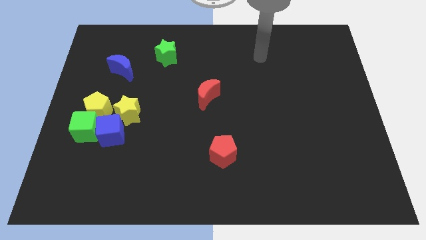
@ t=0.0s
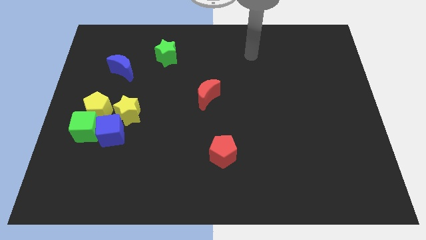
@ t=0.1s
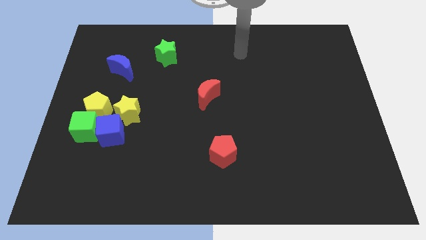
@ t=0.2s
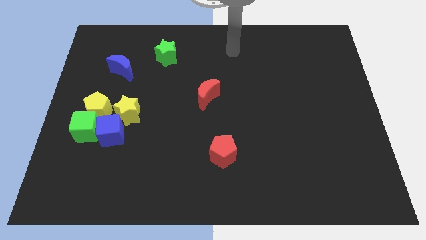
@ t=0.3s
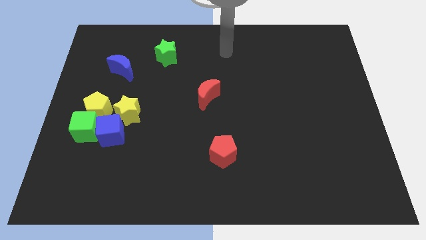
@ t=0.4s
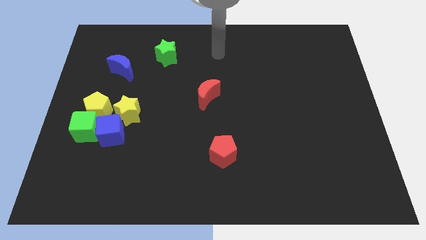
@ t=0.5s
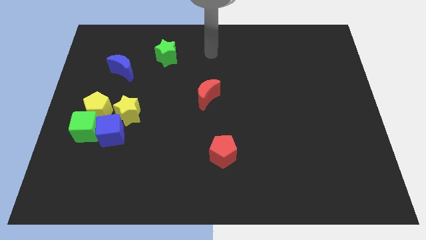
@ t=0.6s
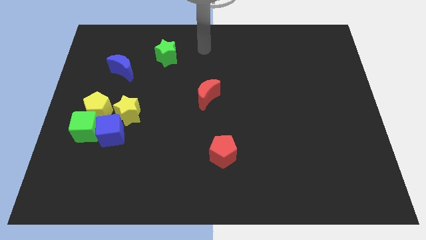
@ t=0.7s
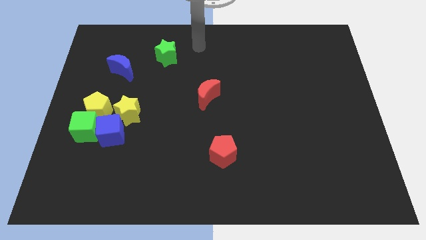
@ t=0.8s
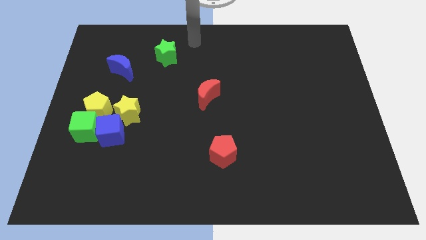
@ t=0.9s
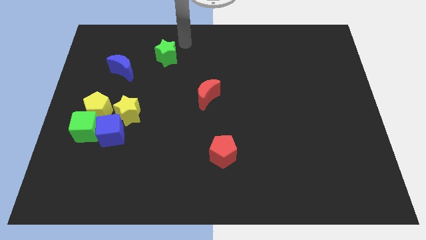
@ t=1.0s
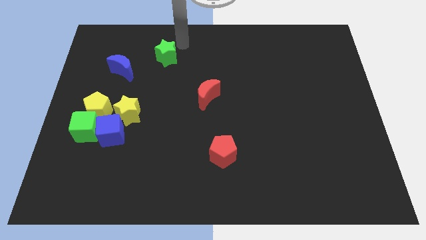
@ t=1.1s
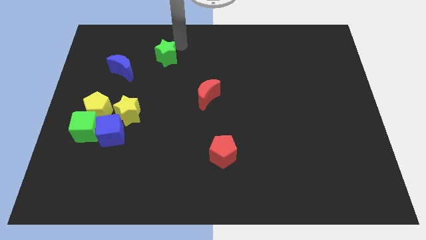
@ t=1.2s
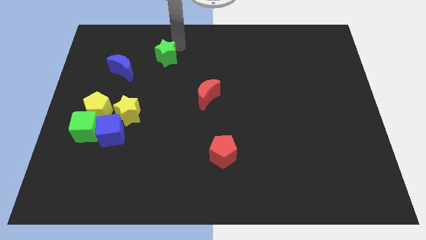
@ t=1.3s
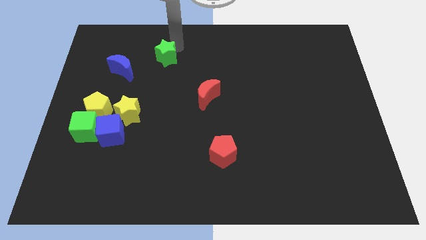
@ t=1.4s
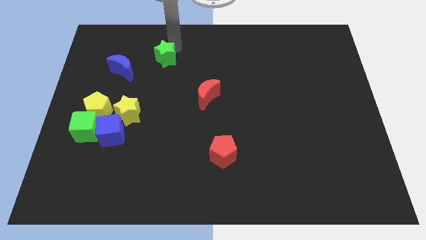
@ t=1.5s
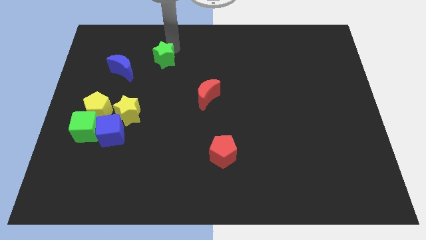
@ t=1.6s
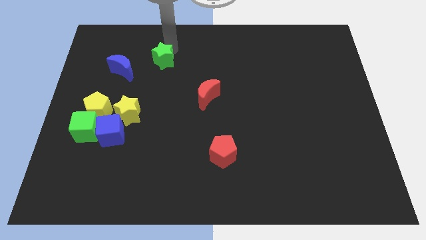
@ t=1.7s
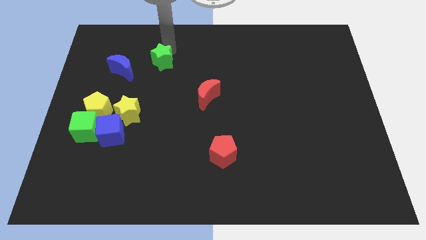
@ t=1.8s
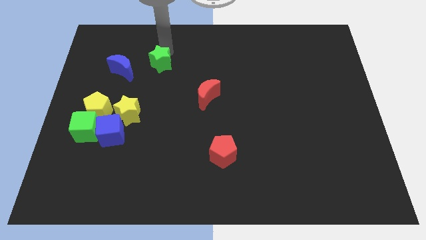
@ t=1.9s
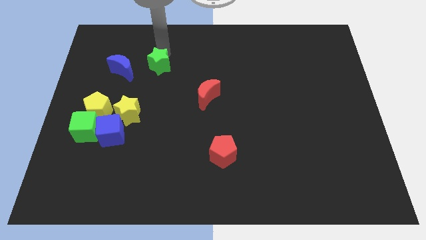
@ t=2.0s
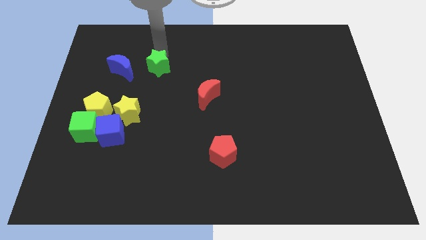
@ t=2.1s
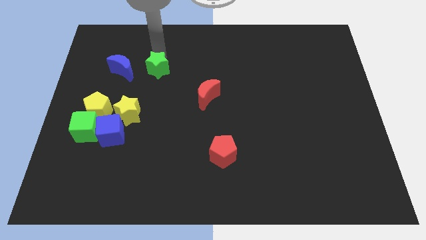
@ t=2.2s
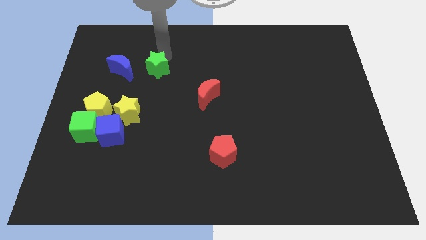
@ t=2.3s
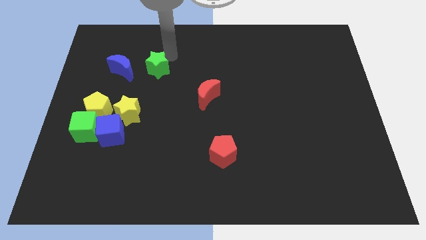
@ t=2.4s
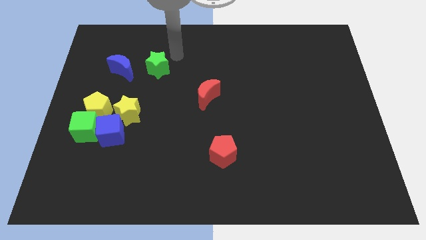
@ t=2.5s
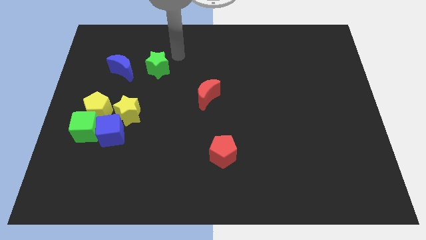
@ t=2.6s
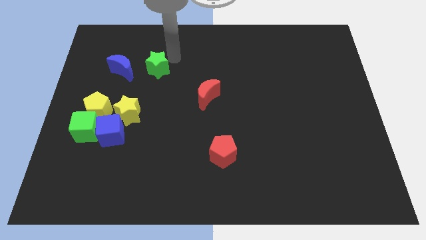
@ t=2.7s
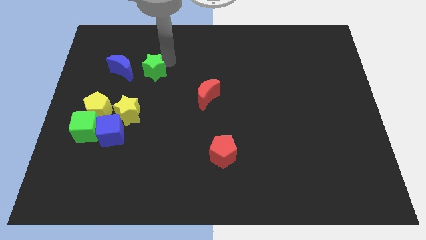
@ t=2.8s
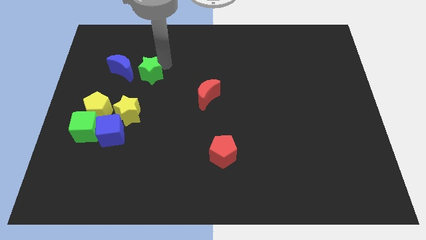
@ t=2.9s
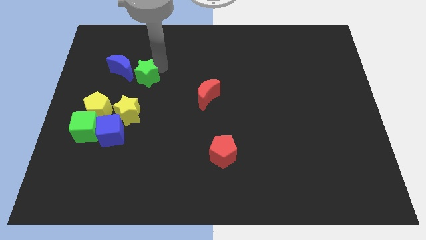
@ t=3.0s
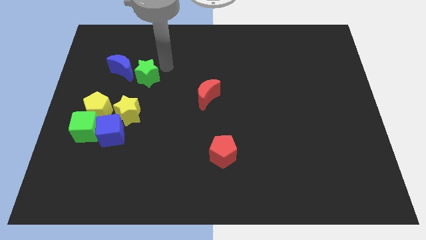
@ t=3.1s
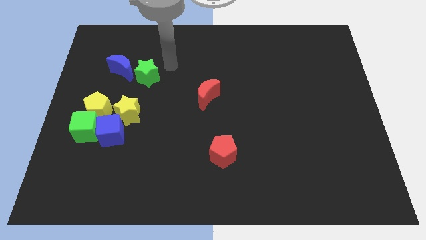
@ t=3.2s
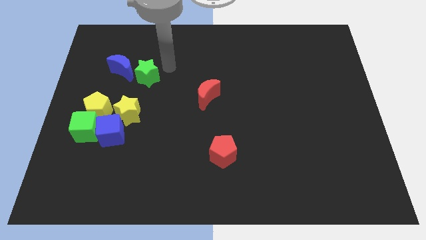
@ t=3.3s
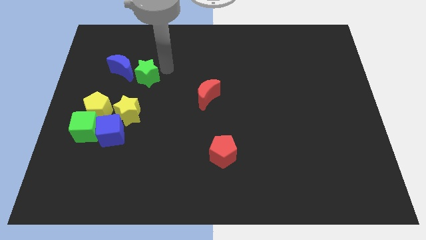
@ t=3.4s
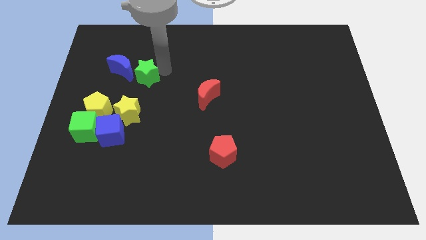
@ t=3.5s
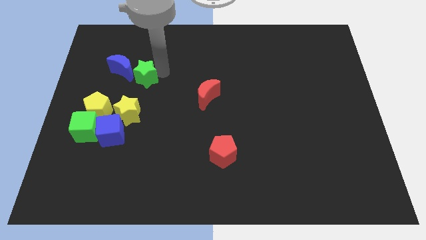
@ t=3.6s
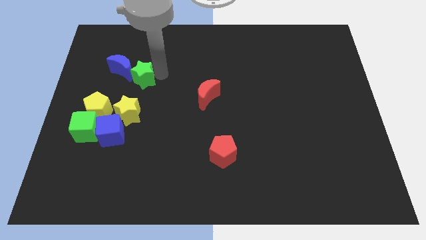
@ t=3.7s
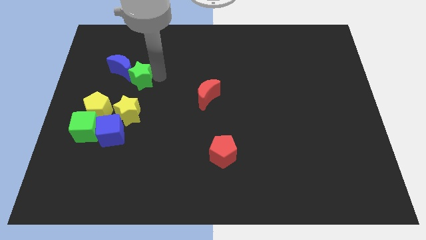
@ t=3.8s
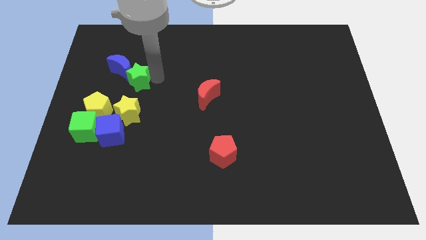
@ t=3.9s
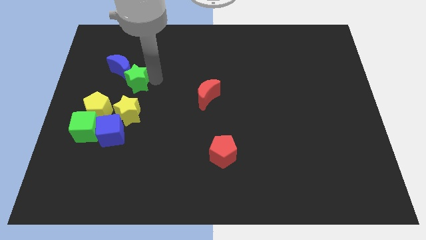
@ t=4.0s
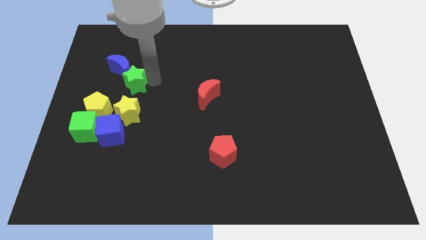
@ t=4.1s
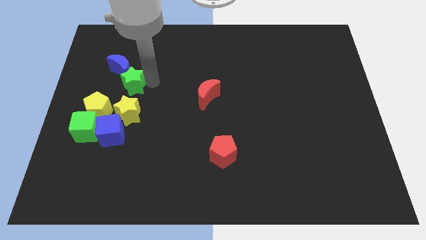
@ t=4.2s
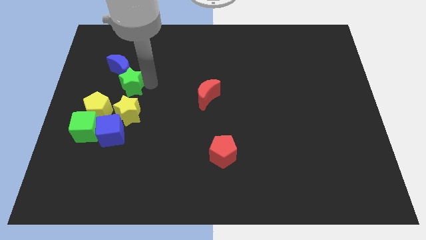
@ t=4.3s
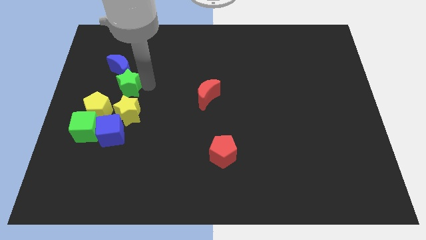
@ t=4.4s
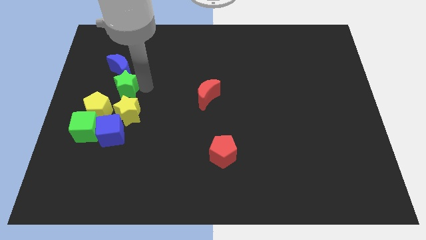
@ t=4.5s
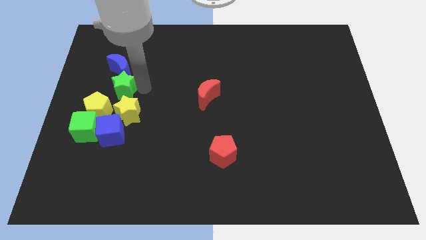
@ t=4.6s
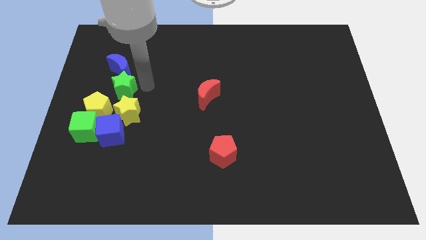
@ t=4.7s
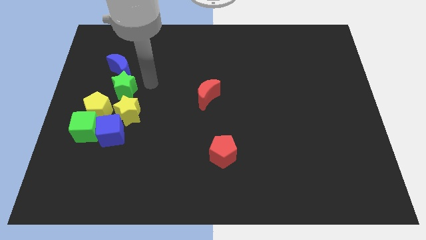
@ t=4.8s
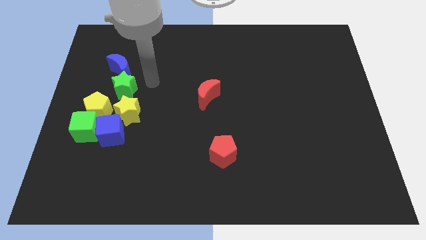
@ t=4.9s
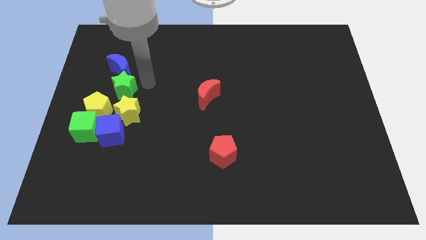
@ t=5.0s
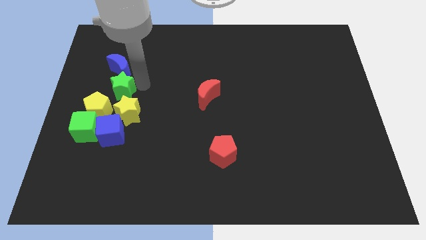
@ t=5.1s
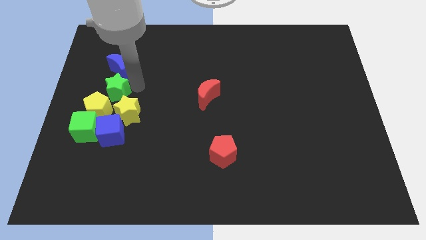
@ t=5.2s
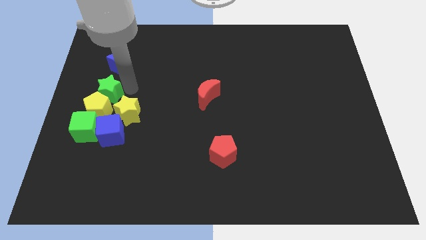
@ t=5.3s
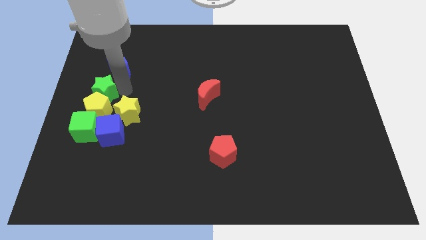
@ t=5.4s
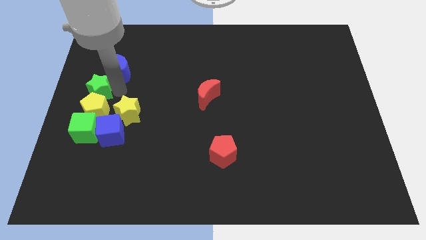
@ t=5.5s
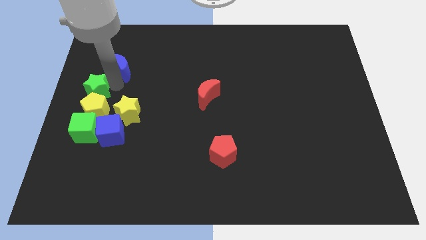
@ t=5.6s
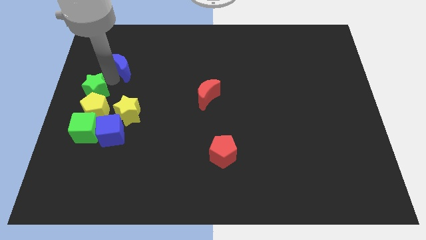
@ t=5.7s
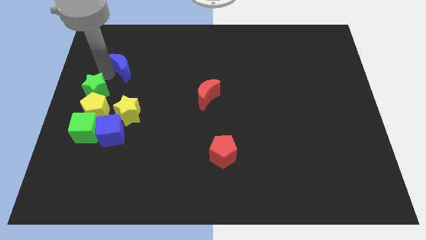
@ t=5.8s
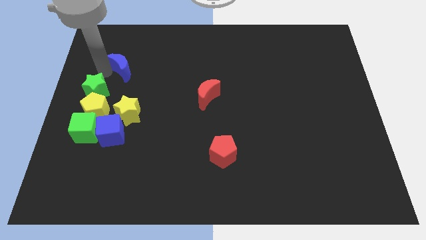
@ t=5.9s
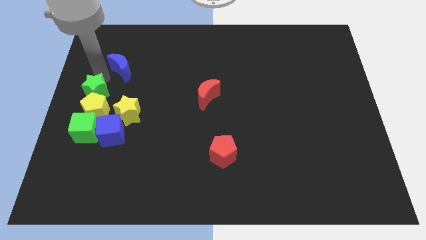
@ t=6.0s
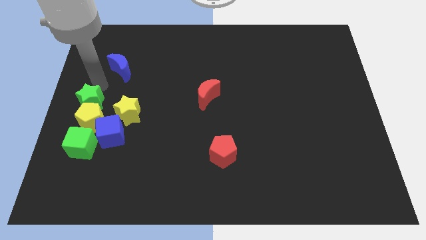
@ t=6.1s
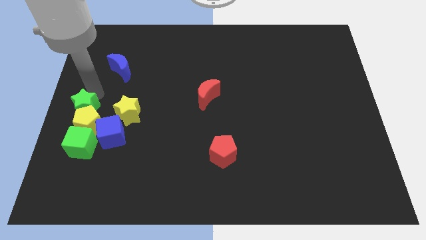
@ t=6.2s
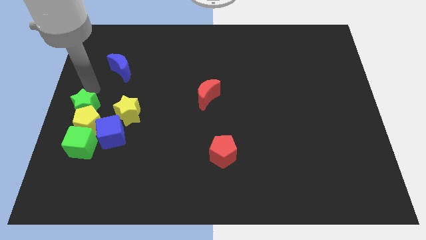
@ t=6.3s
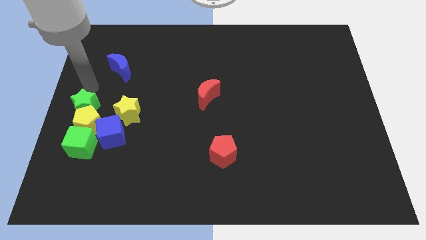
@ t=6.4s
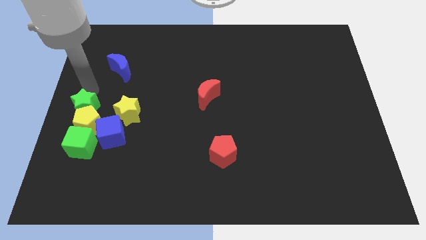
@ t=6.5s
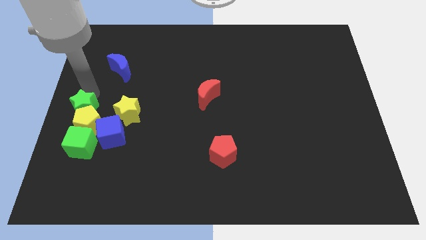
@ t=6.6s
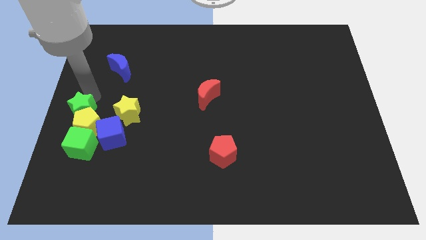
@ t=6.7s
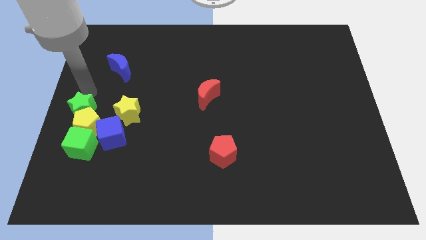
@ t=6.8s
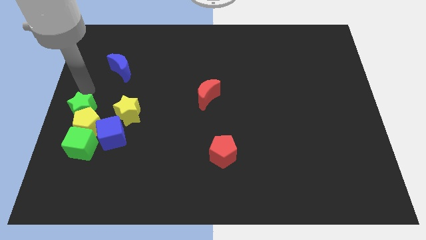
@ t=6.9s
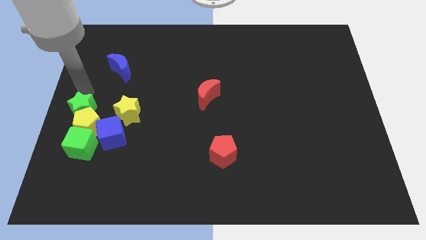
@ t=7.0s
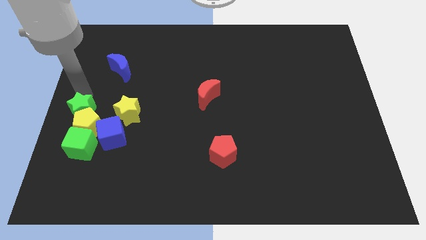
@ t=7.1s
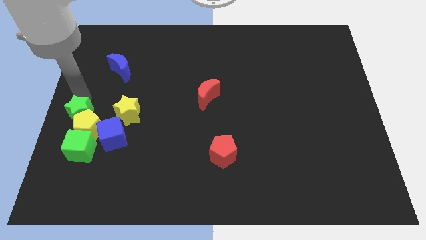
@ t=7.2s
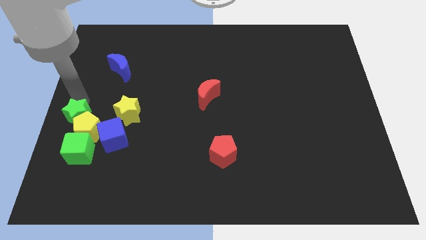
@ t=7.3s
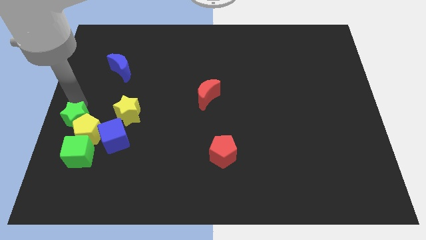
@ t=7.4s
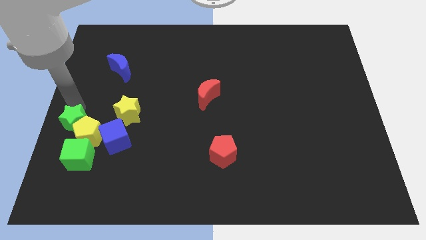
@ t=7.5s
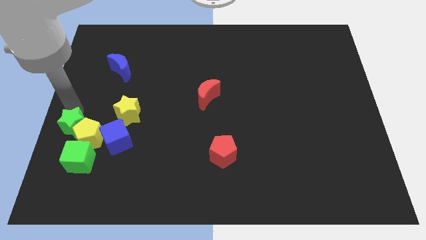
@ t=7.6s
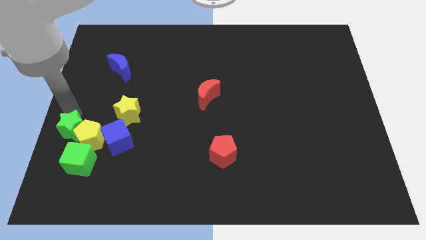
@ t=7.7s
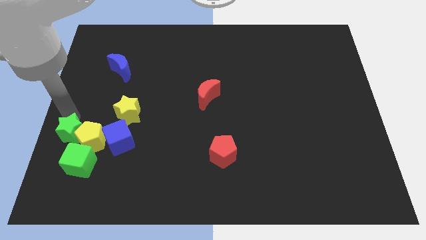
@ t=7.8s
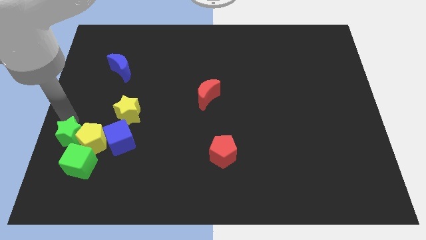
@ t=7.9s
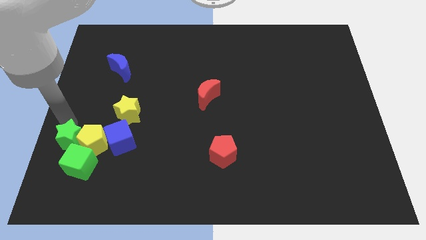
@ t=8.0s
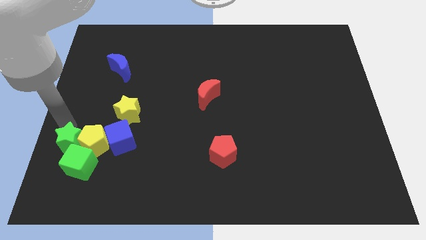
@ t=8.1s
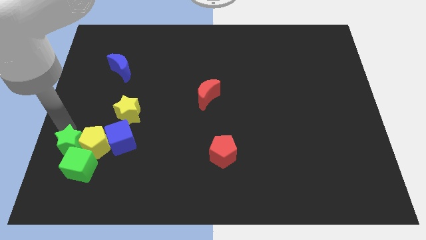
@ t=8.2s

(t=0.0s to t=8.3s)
put the green star next to the green cube
